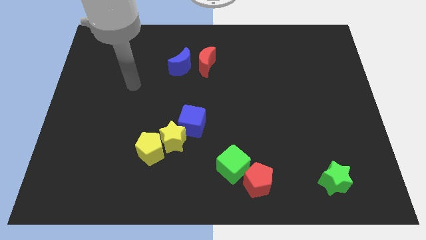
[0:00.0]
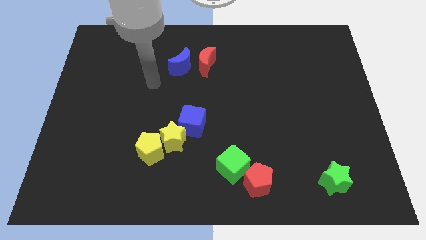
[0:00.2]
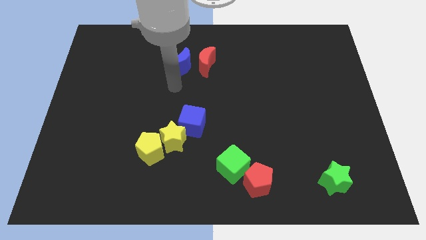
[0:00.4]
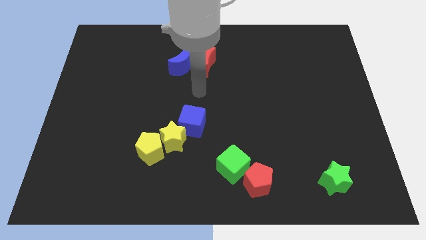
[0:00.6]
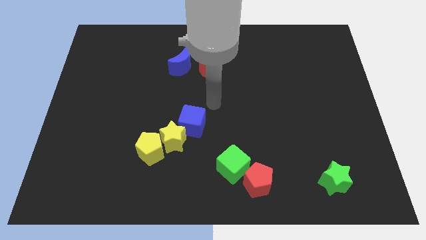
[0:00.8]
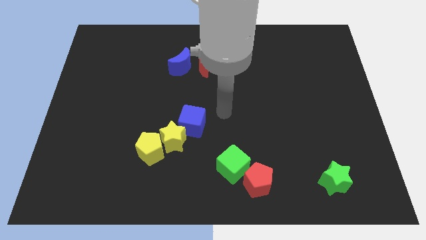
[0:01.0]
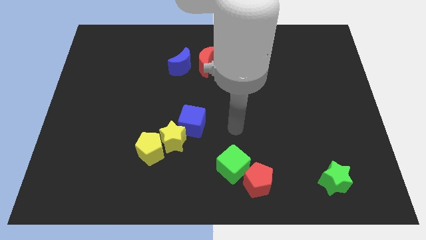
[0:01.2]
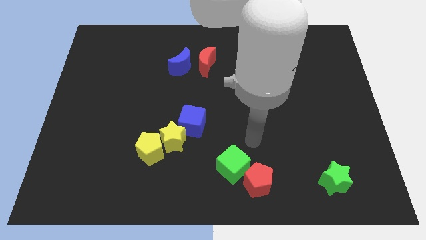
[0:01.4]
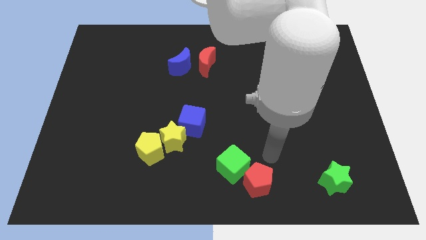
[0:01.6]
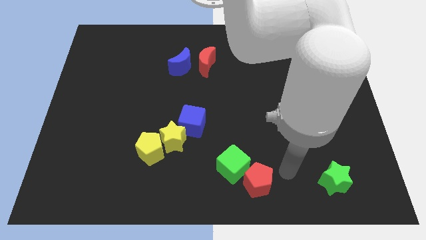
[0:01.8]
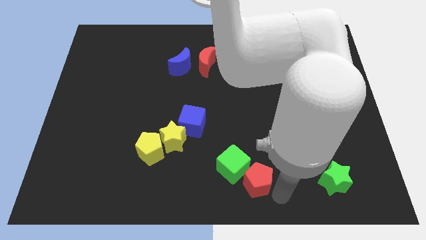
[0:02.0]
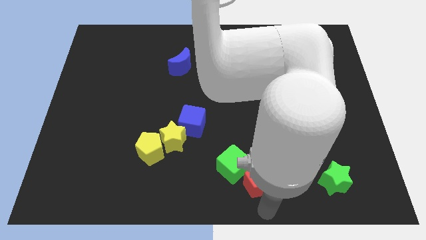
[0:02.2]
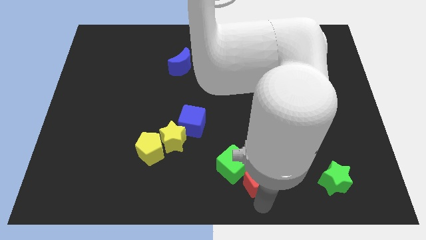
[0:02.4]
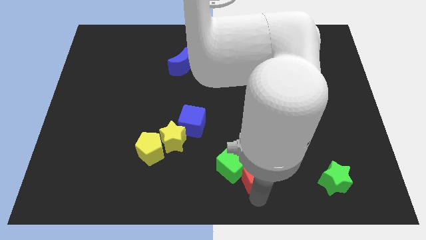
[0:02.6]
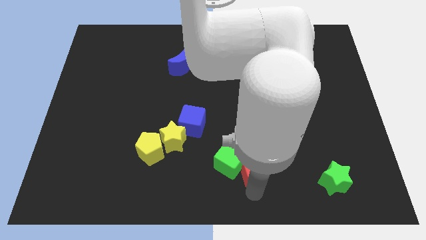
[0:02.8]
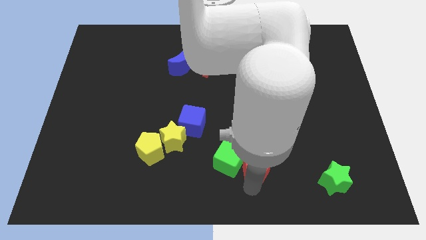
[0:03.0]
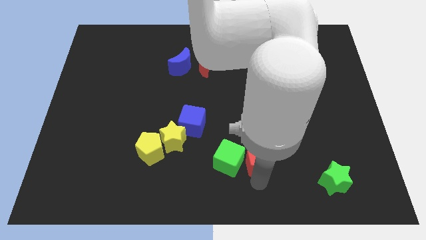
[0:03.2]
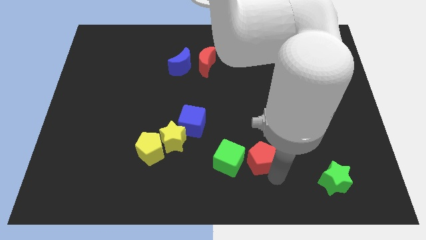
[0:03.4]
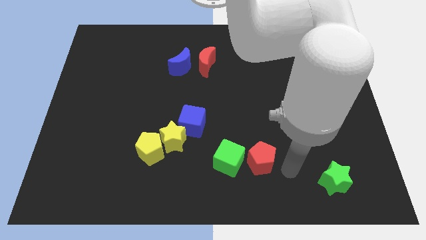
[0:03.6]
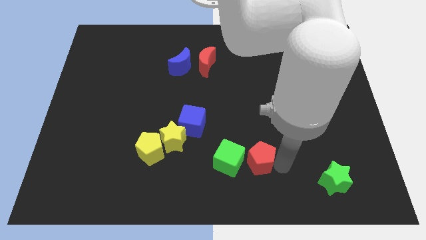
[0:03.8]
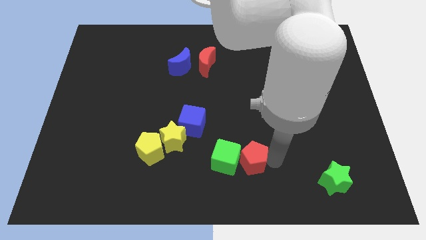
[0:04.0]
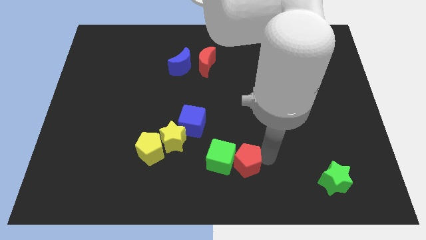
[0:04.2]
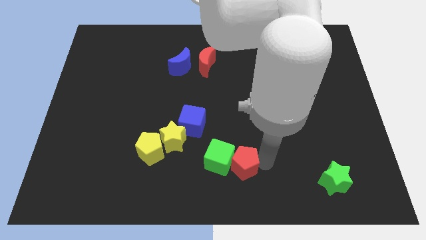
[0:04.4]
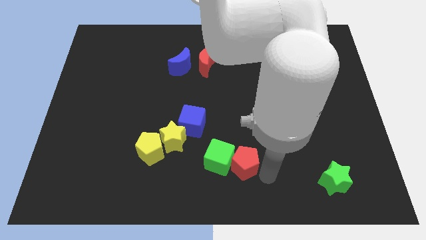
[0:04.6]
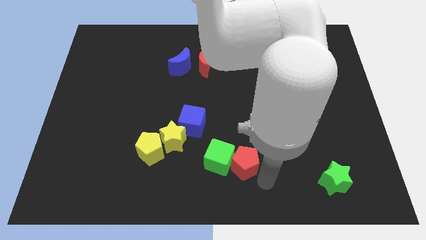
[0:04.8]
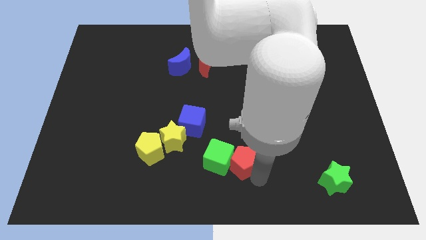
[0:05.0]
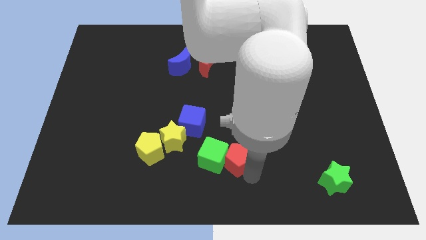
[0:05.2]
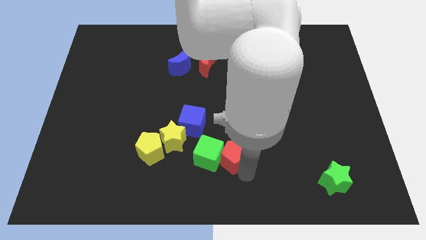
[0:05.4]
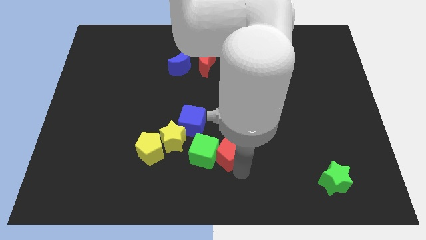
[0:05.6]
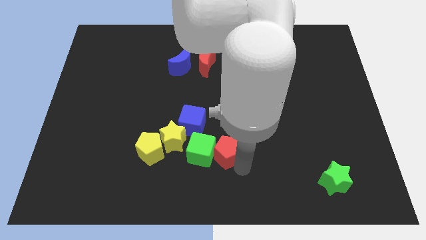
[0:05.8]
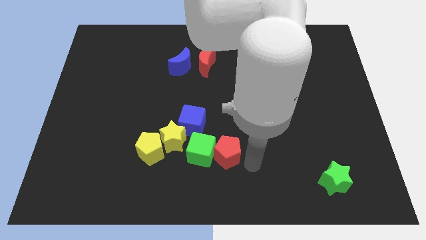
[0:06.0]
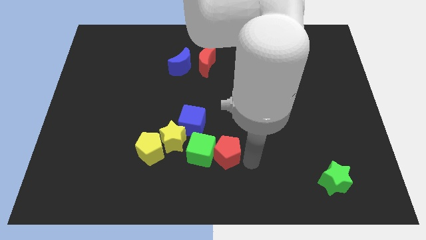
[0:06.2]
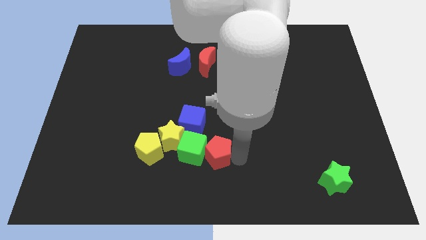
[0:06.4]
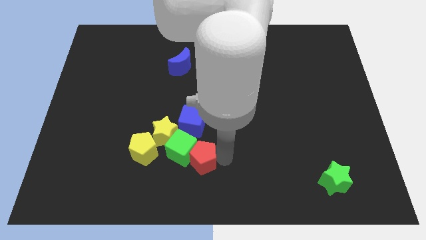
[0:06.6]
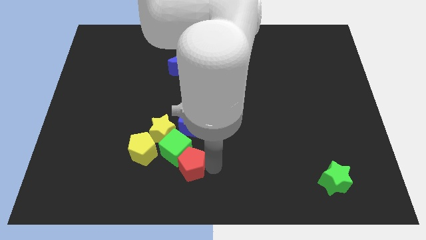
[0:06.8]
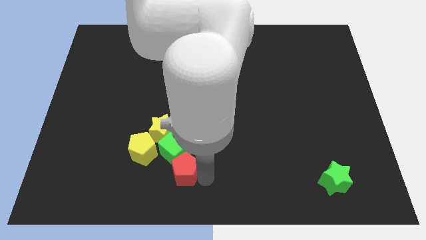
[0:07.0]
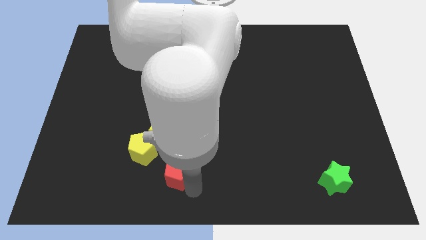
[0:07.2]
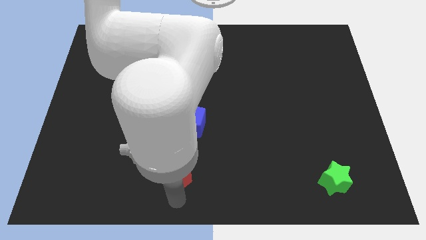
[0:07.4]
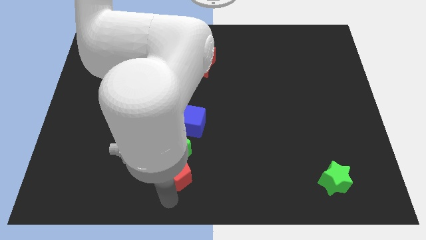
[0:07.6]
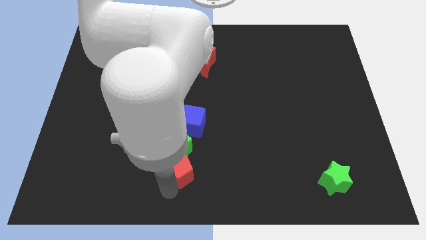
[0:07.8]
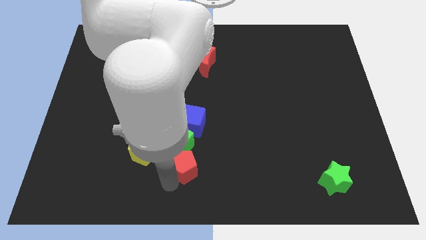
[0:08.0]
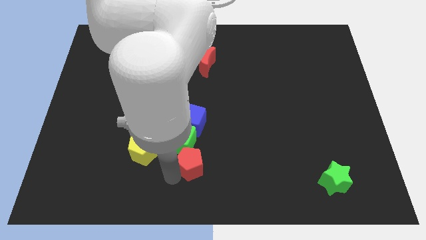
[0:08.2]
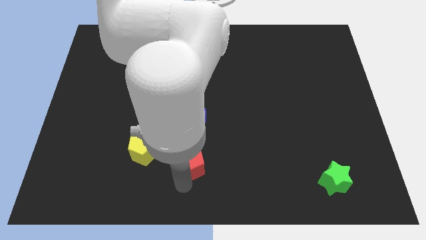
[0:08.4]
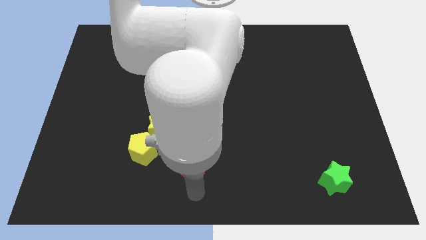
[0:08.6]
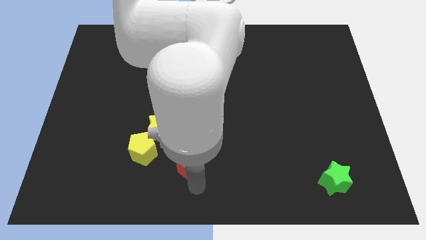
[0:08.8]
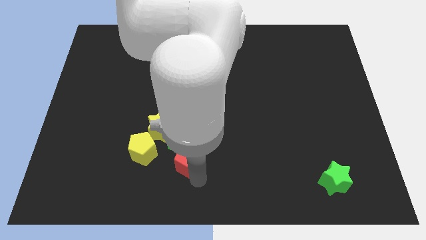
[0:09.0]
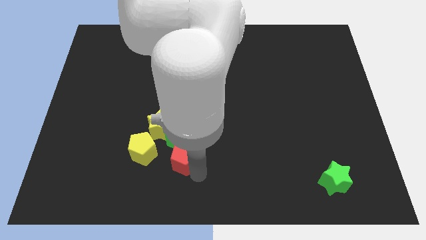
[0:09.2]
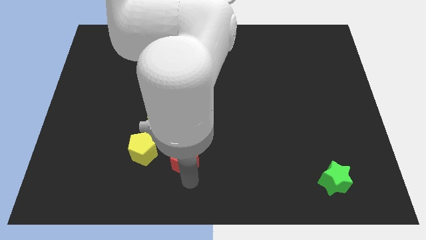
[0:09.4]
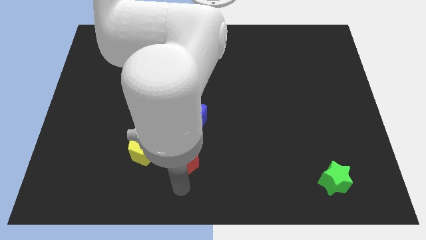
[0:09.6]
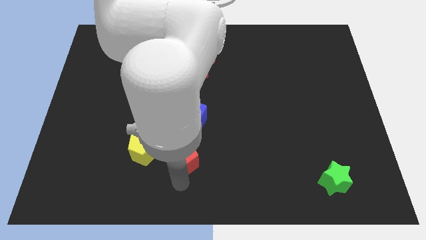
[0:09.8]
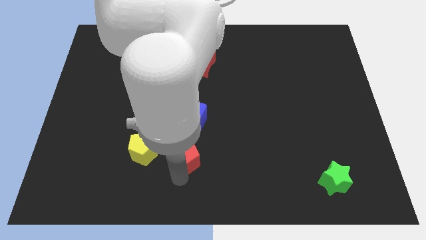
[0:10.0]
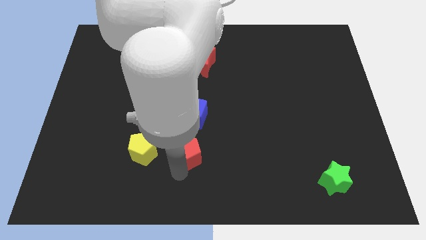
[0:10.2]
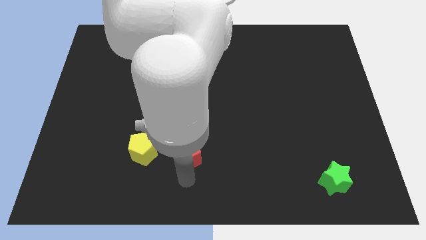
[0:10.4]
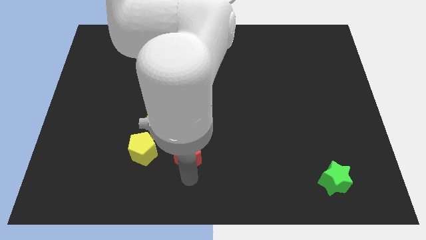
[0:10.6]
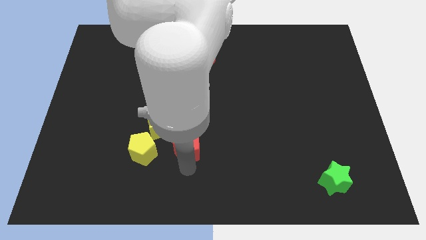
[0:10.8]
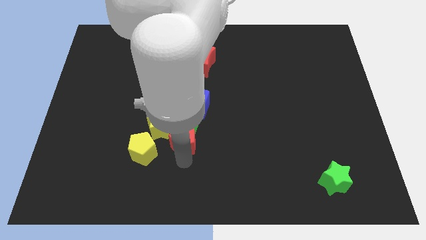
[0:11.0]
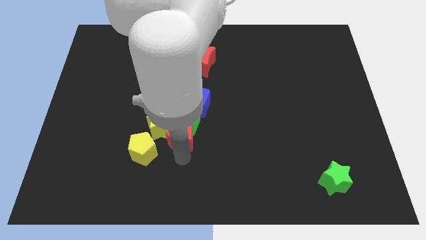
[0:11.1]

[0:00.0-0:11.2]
put the red pentagon to the yellow star

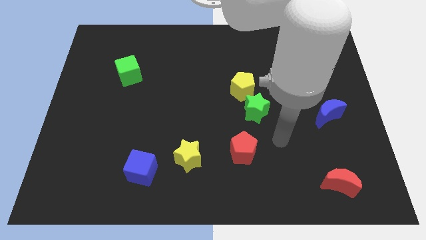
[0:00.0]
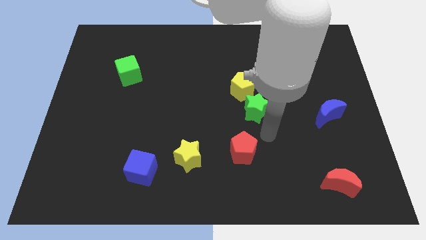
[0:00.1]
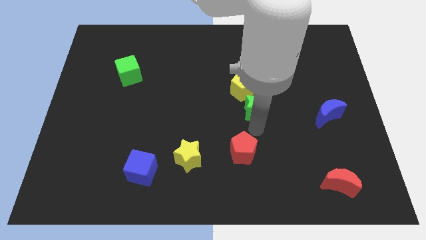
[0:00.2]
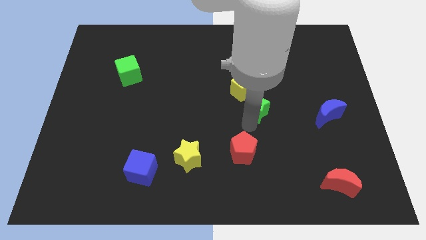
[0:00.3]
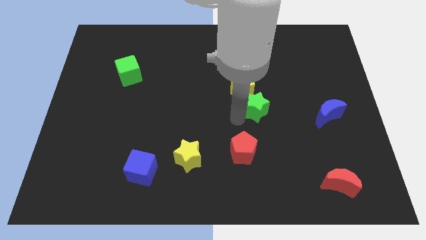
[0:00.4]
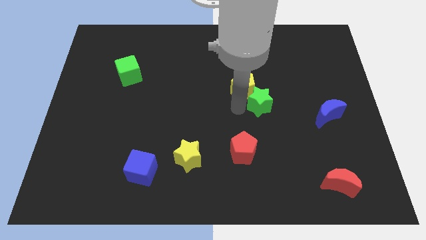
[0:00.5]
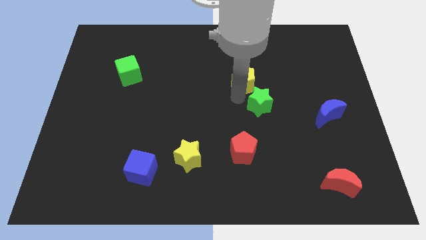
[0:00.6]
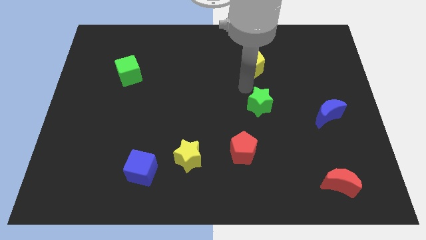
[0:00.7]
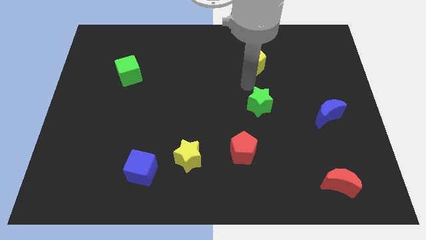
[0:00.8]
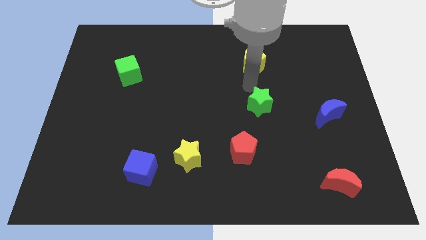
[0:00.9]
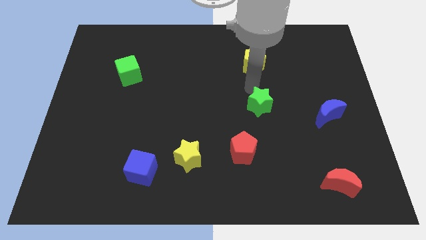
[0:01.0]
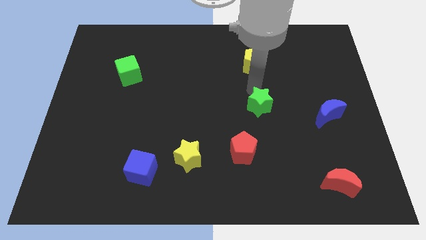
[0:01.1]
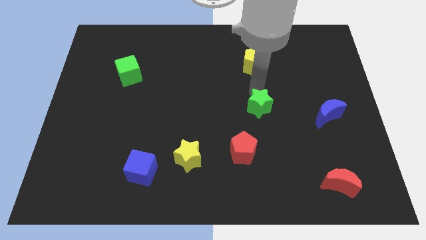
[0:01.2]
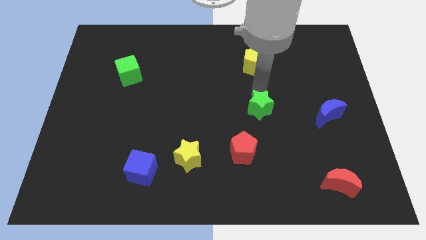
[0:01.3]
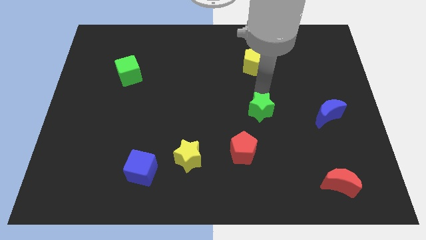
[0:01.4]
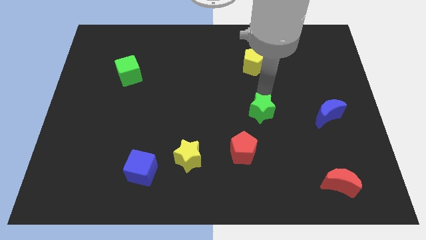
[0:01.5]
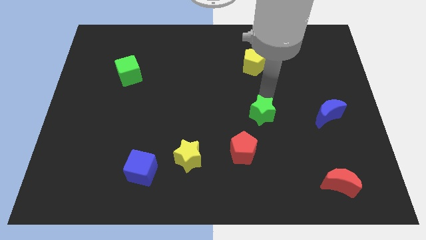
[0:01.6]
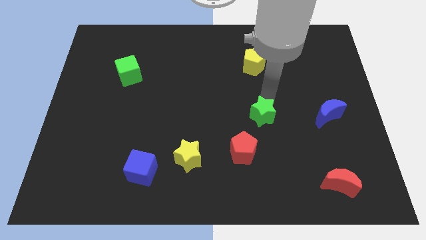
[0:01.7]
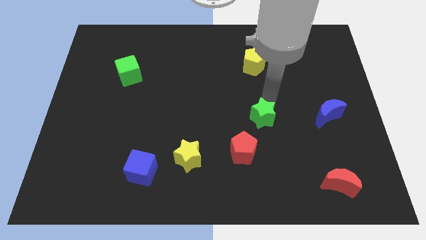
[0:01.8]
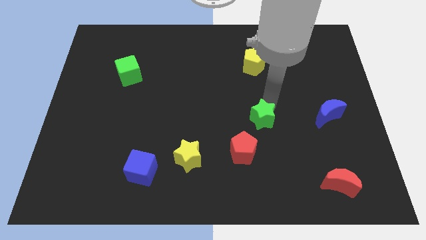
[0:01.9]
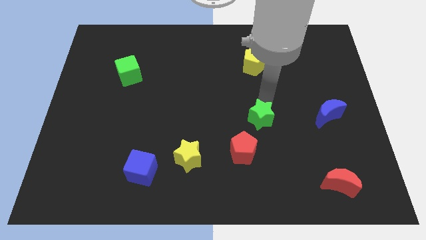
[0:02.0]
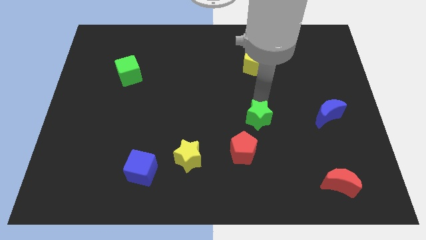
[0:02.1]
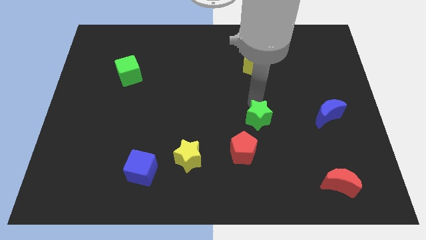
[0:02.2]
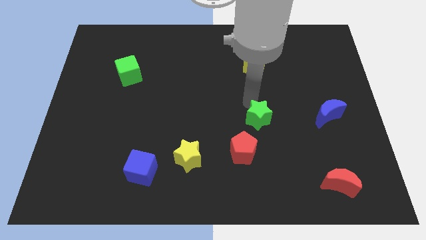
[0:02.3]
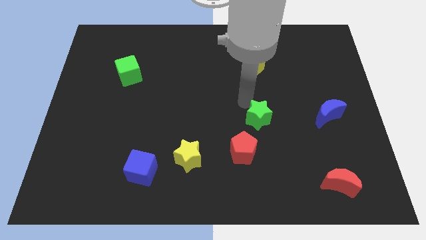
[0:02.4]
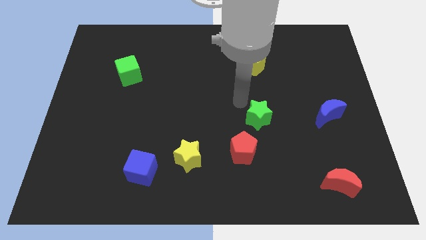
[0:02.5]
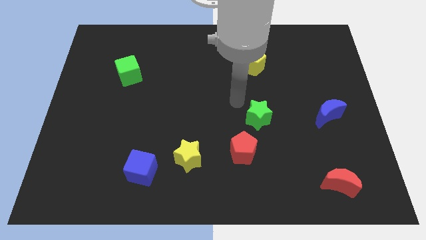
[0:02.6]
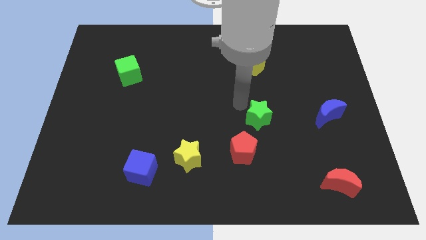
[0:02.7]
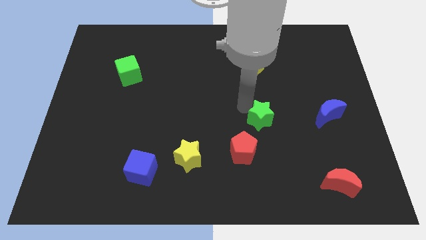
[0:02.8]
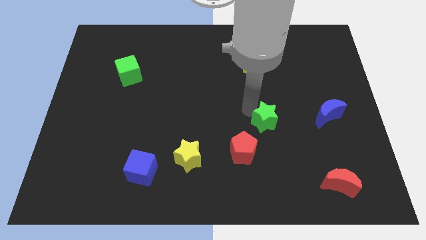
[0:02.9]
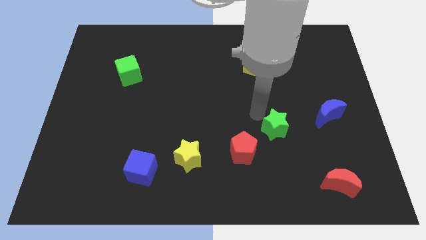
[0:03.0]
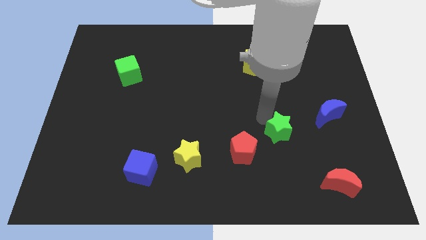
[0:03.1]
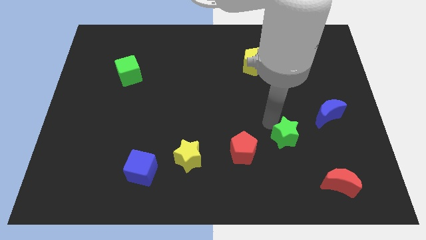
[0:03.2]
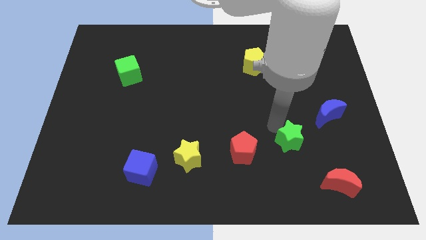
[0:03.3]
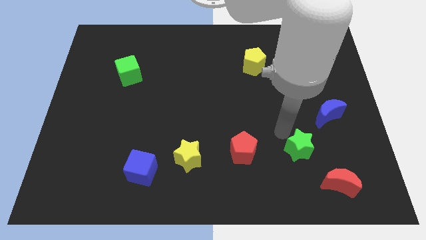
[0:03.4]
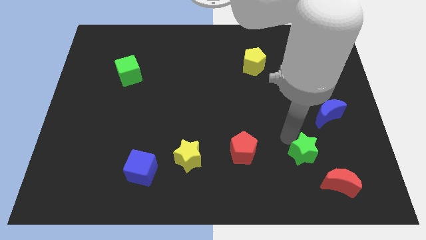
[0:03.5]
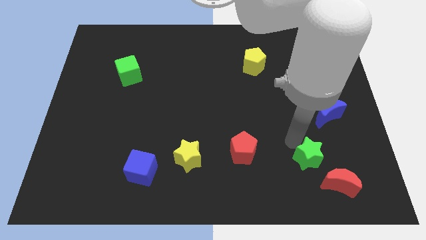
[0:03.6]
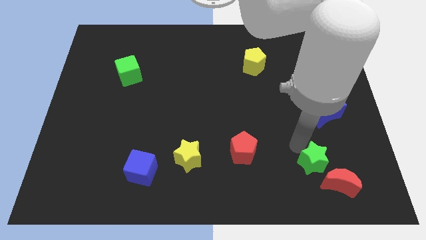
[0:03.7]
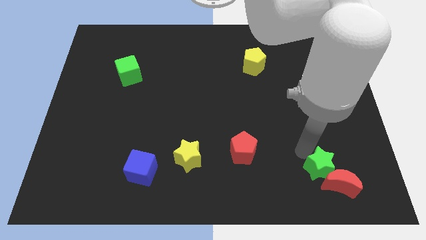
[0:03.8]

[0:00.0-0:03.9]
push the green star close to the red moon
